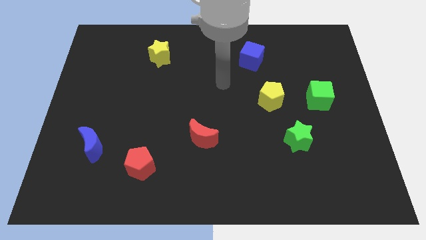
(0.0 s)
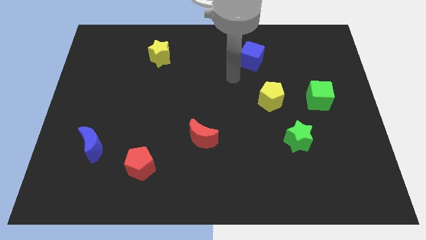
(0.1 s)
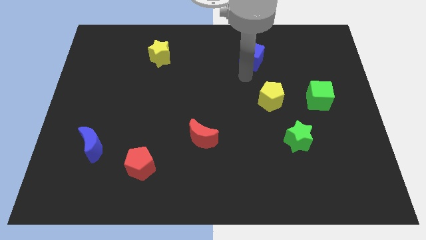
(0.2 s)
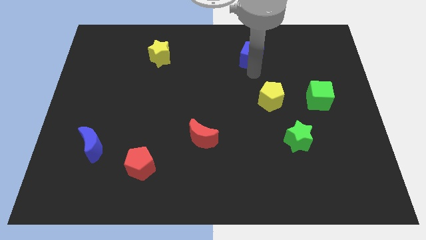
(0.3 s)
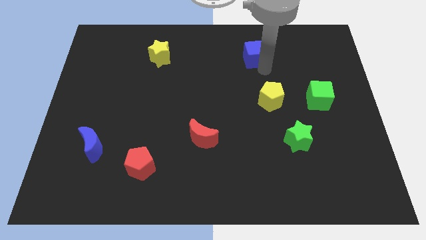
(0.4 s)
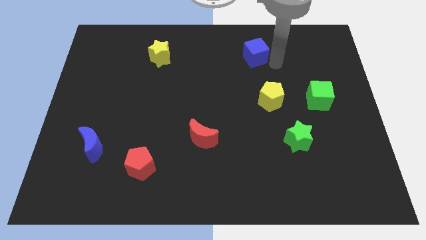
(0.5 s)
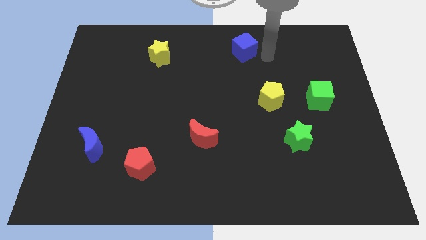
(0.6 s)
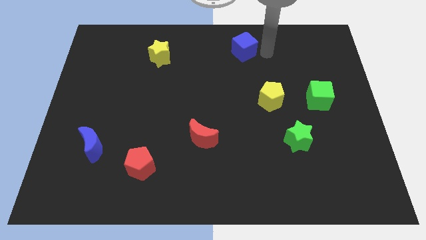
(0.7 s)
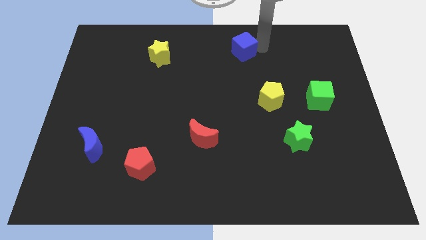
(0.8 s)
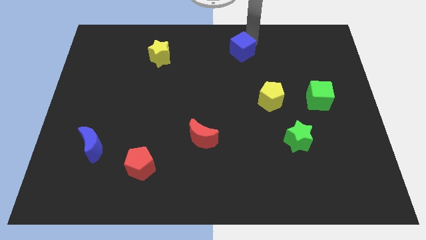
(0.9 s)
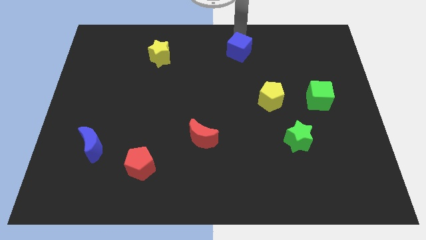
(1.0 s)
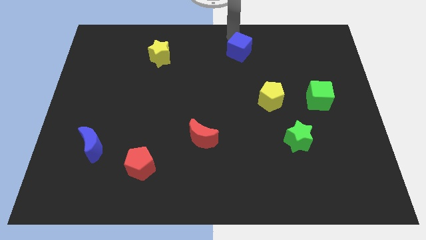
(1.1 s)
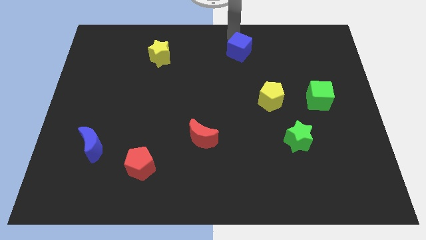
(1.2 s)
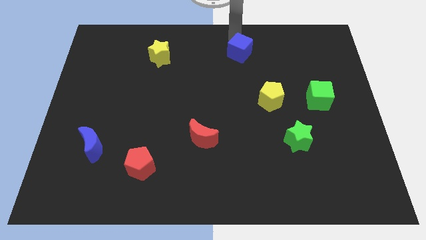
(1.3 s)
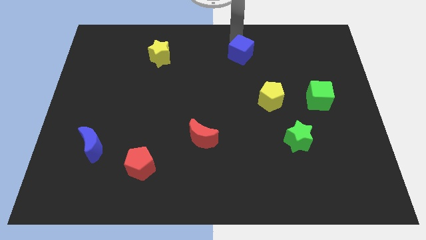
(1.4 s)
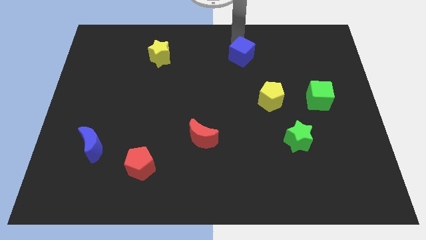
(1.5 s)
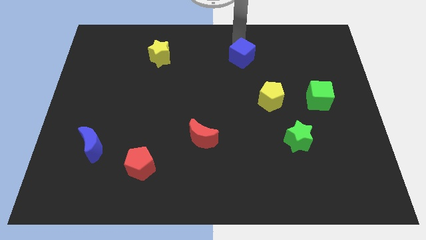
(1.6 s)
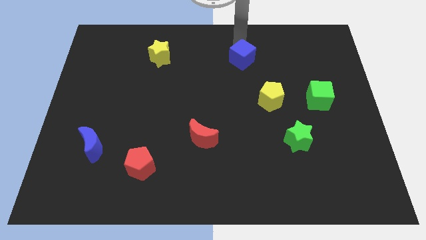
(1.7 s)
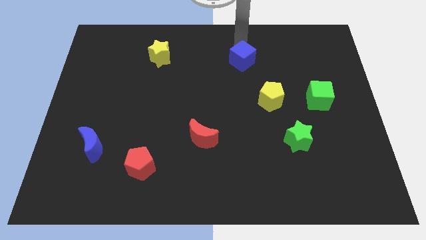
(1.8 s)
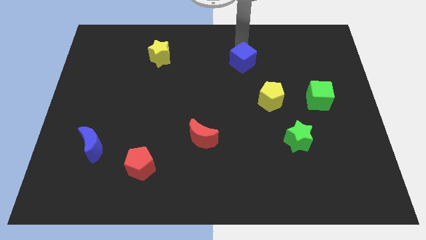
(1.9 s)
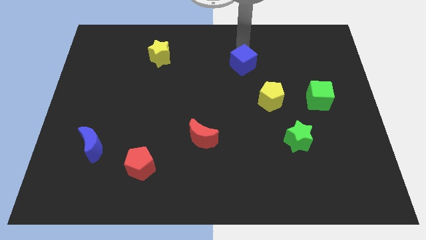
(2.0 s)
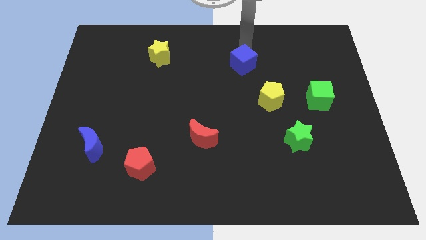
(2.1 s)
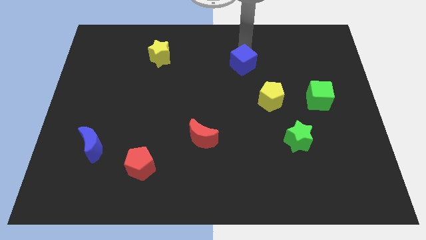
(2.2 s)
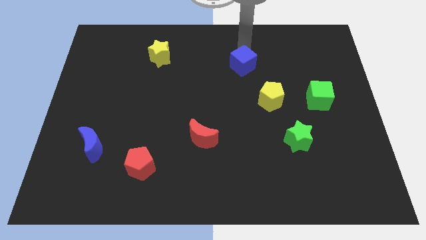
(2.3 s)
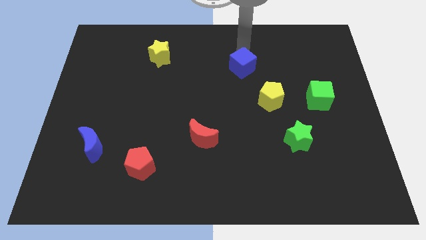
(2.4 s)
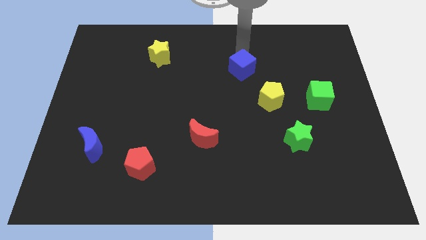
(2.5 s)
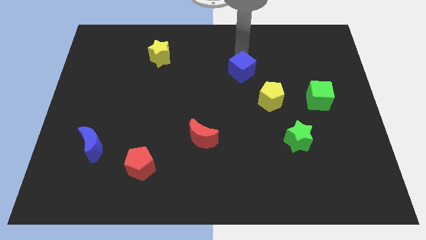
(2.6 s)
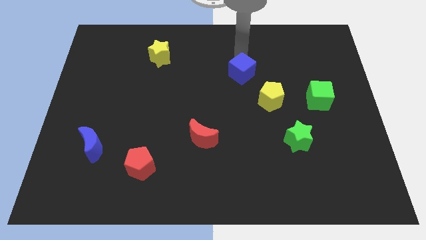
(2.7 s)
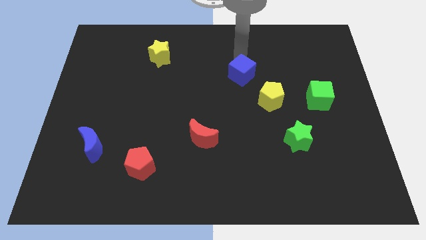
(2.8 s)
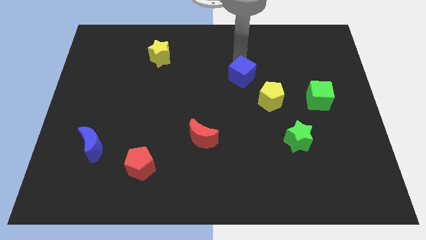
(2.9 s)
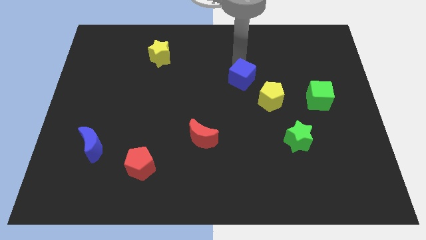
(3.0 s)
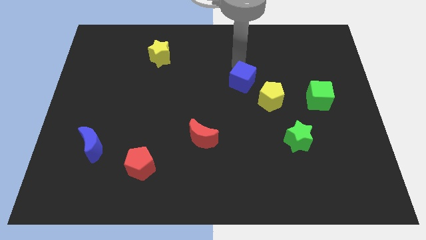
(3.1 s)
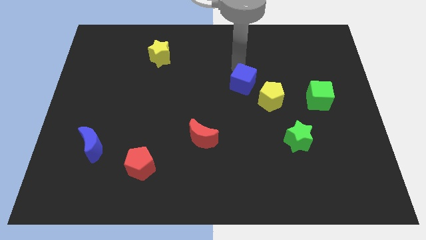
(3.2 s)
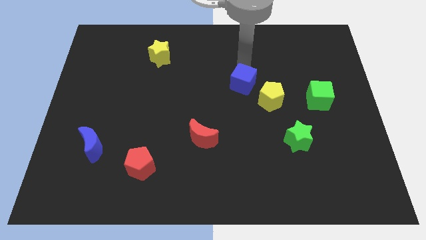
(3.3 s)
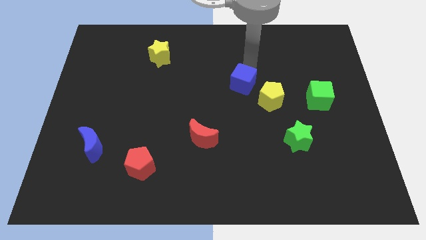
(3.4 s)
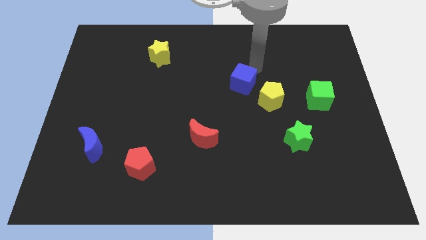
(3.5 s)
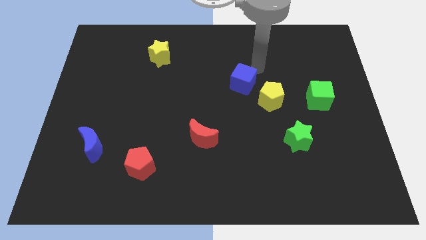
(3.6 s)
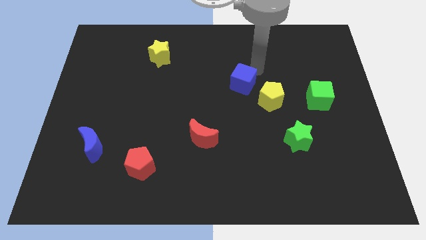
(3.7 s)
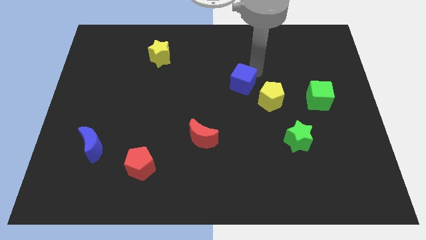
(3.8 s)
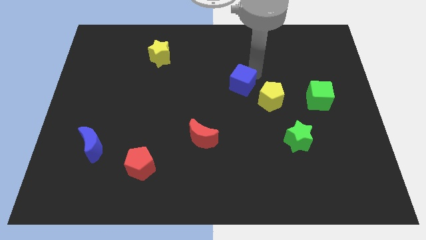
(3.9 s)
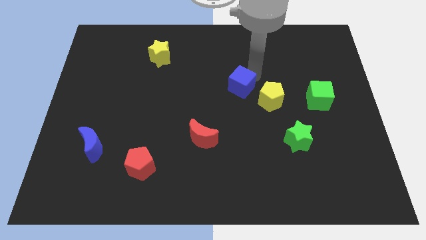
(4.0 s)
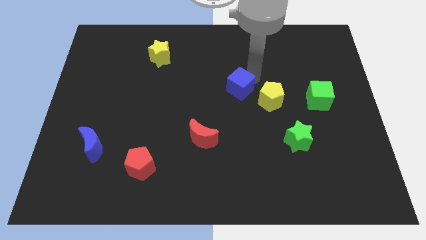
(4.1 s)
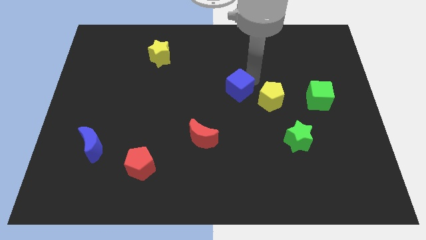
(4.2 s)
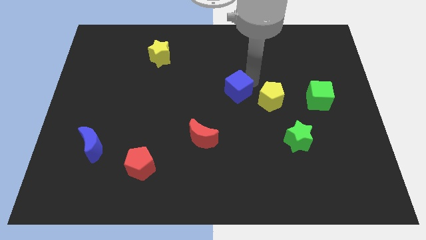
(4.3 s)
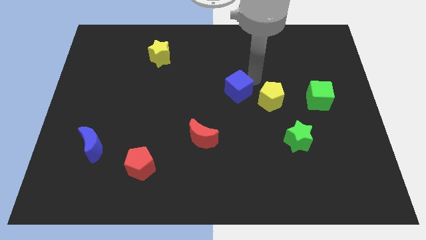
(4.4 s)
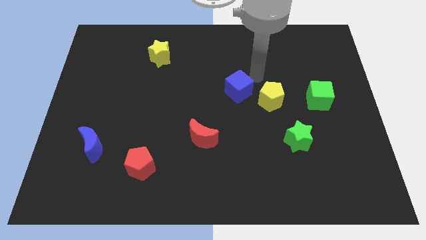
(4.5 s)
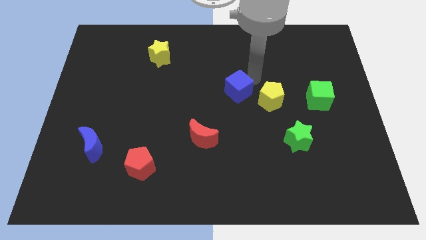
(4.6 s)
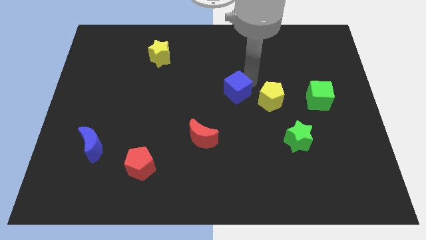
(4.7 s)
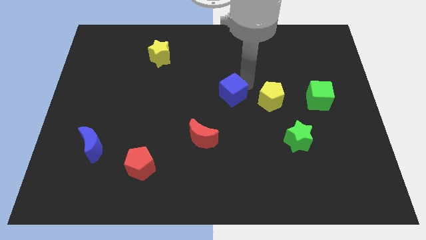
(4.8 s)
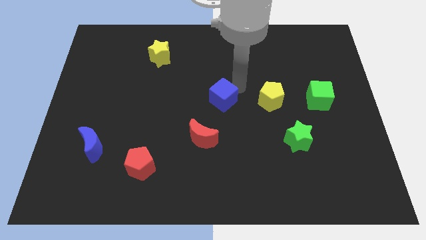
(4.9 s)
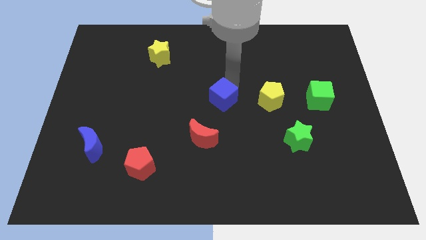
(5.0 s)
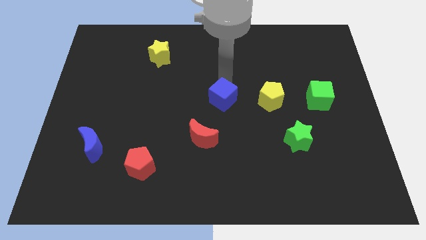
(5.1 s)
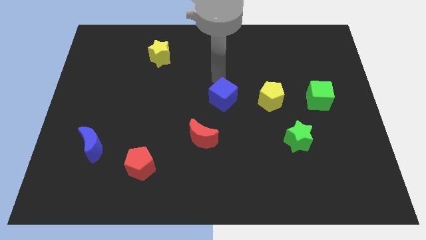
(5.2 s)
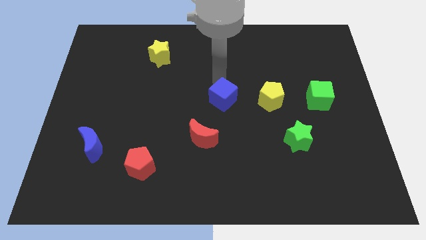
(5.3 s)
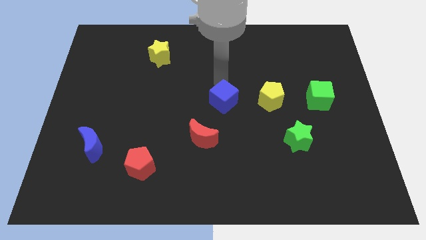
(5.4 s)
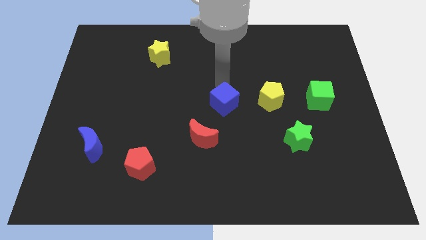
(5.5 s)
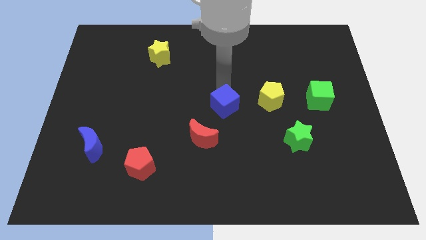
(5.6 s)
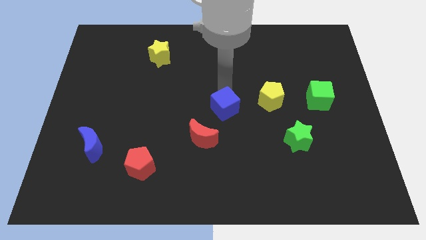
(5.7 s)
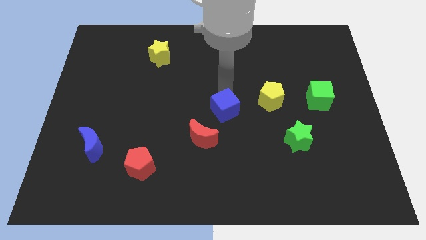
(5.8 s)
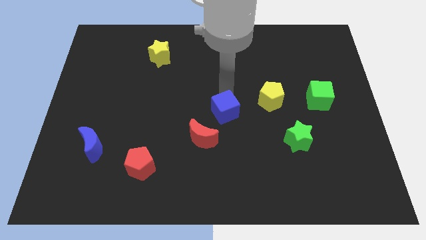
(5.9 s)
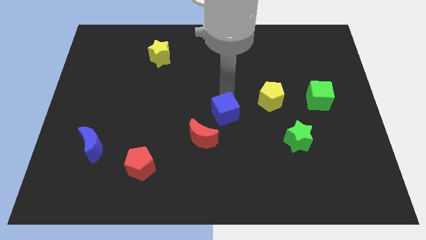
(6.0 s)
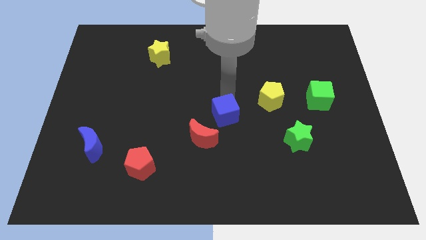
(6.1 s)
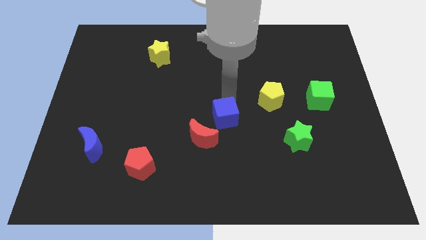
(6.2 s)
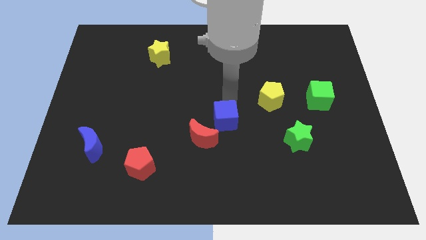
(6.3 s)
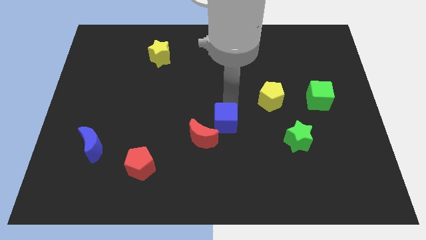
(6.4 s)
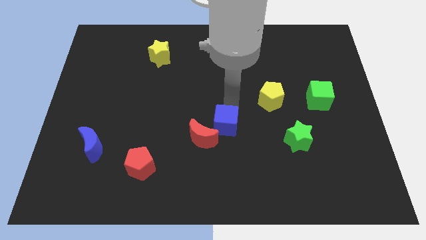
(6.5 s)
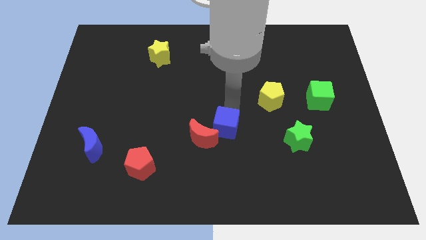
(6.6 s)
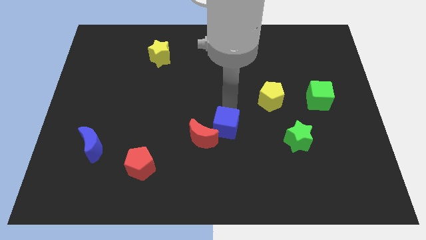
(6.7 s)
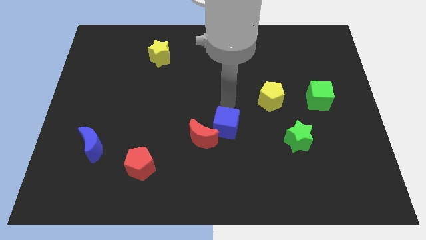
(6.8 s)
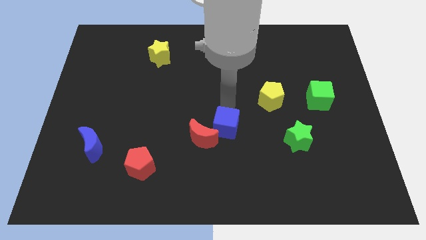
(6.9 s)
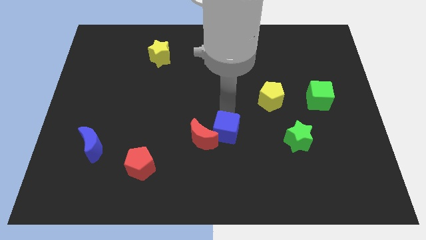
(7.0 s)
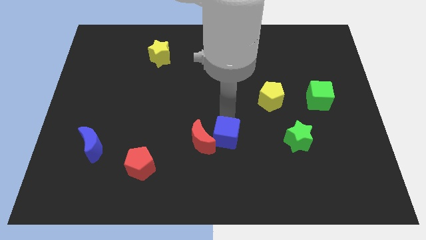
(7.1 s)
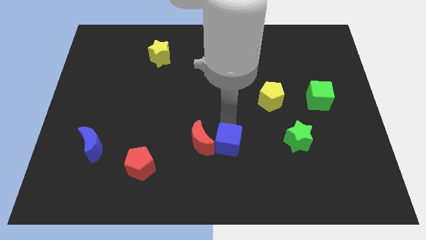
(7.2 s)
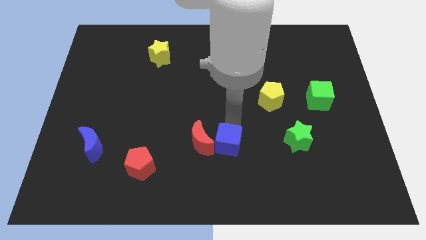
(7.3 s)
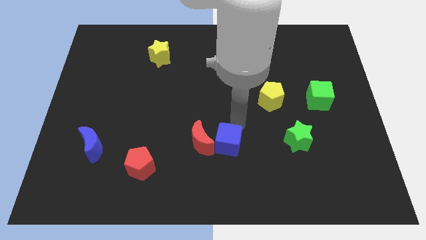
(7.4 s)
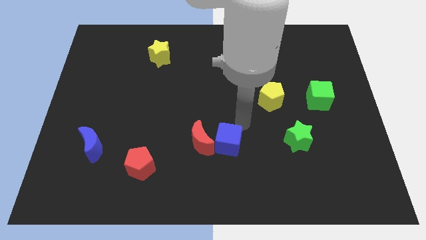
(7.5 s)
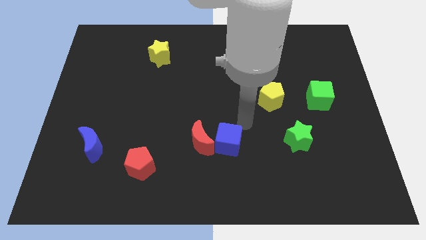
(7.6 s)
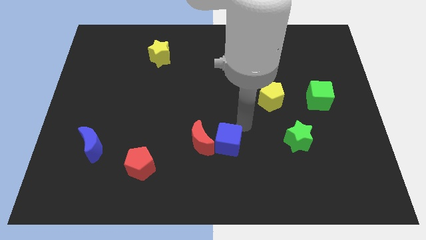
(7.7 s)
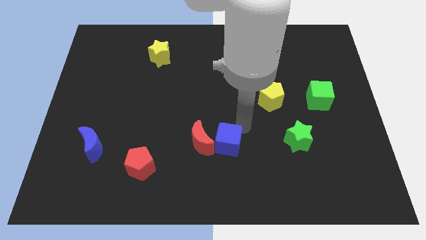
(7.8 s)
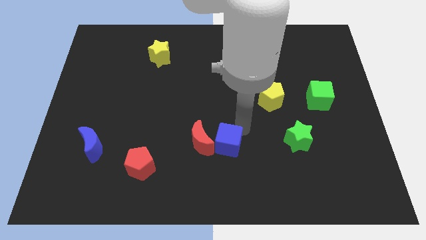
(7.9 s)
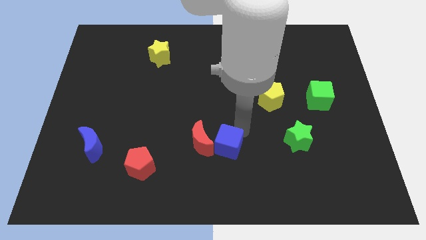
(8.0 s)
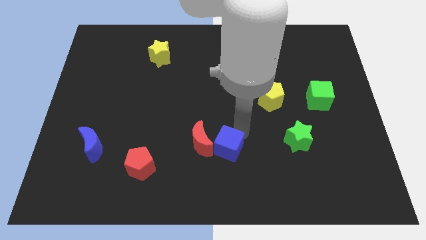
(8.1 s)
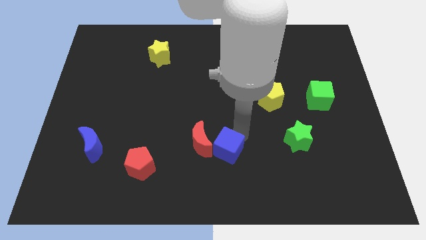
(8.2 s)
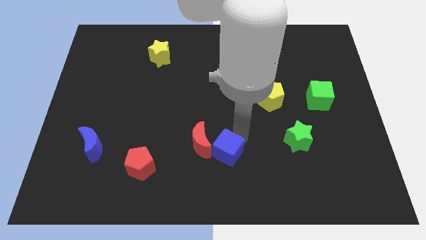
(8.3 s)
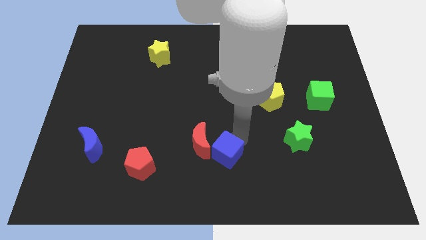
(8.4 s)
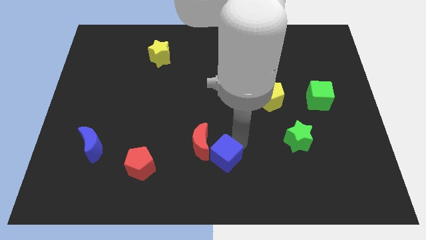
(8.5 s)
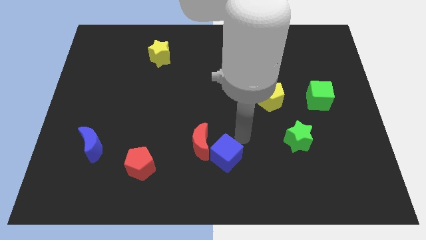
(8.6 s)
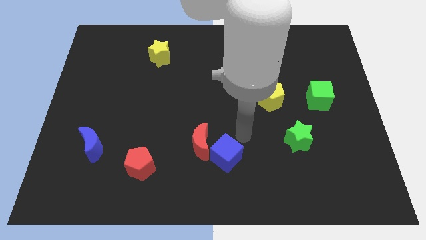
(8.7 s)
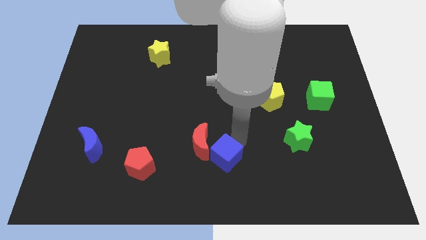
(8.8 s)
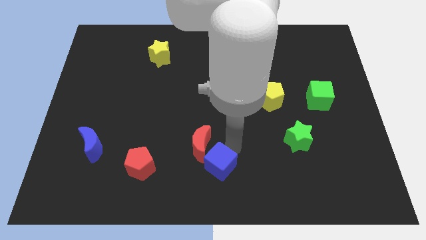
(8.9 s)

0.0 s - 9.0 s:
put the blue cube to the bottom of the red moon
